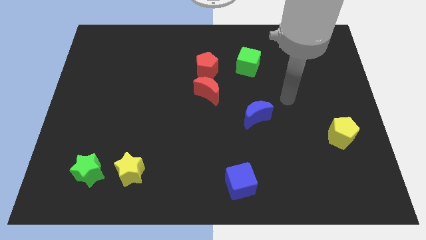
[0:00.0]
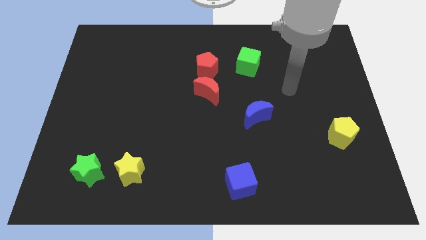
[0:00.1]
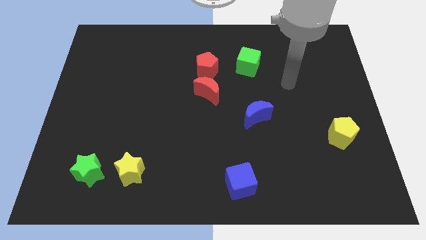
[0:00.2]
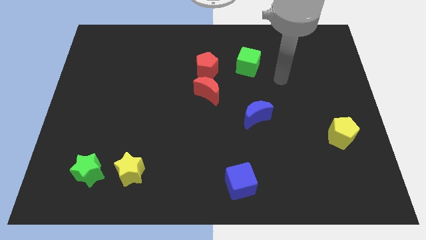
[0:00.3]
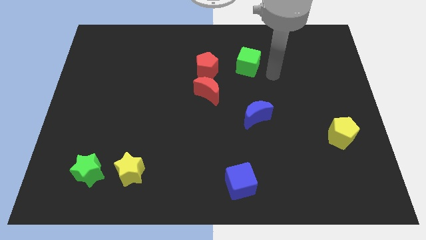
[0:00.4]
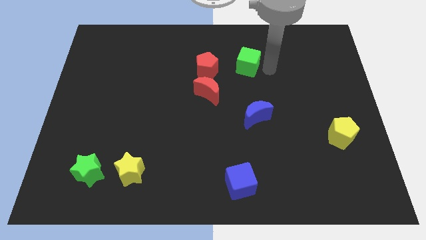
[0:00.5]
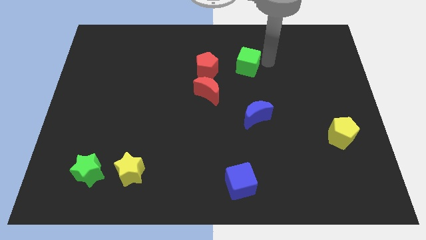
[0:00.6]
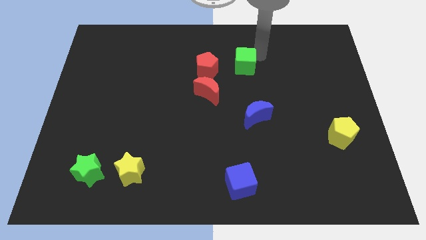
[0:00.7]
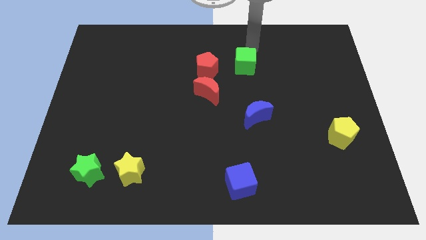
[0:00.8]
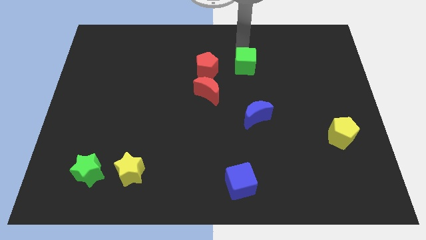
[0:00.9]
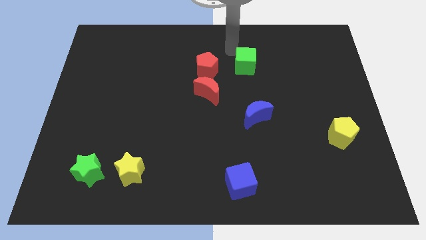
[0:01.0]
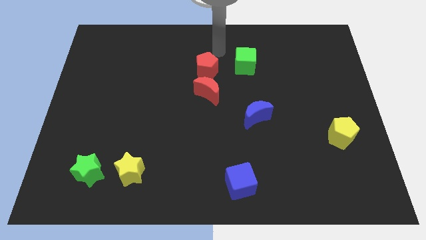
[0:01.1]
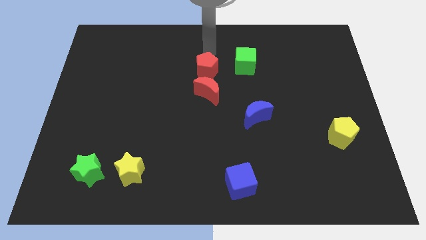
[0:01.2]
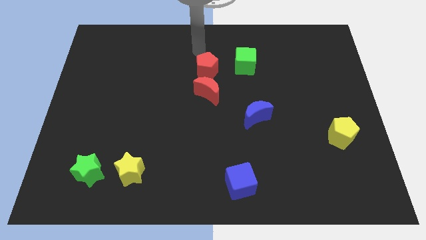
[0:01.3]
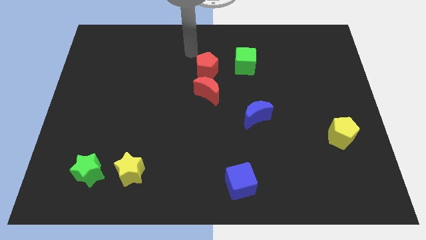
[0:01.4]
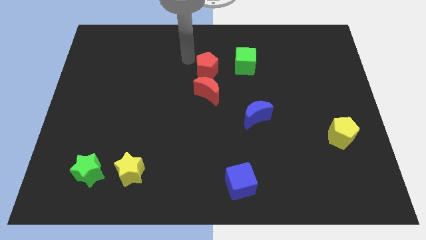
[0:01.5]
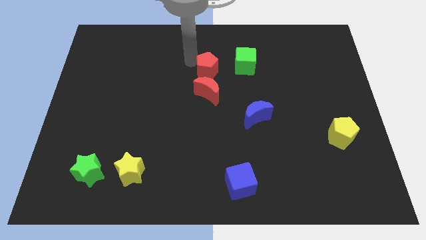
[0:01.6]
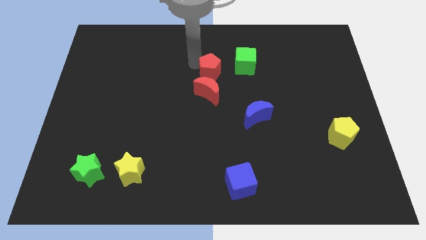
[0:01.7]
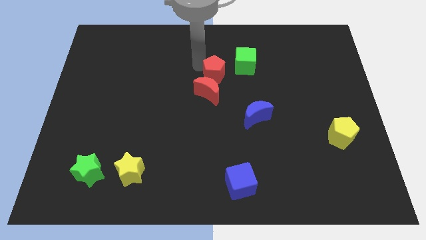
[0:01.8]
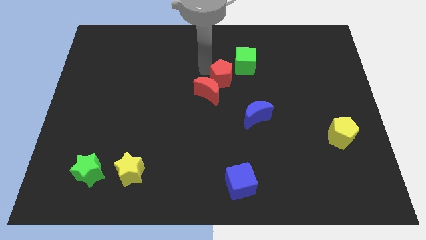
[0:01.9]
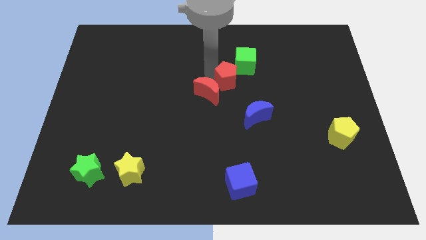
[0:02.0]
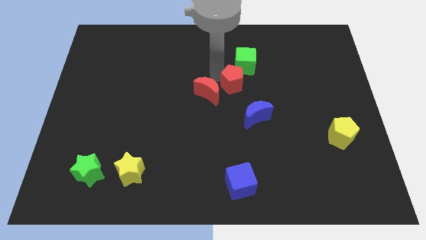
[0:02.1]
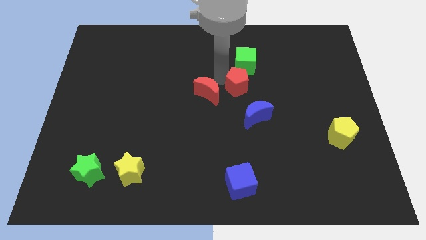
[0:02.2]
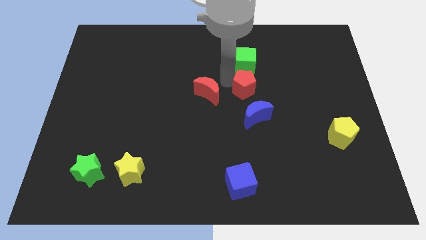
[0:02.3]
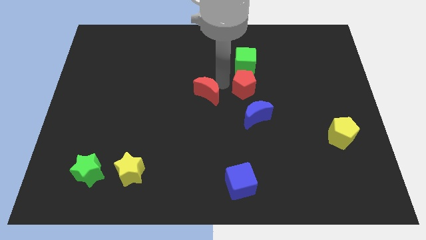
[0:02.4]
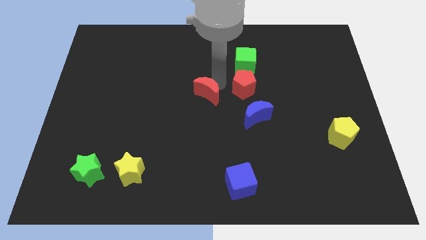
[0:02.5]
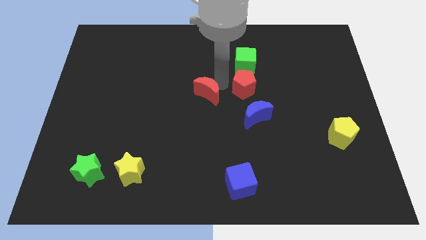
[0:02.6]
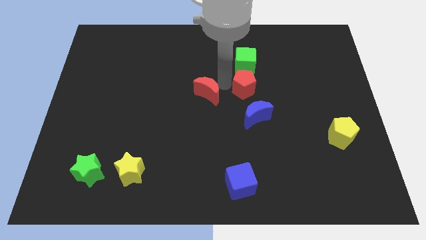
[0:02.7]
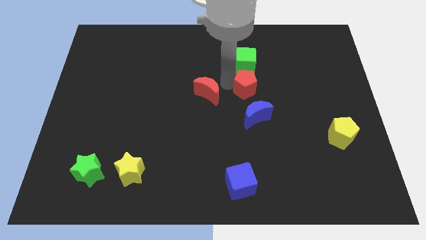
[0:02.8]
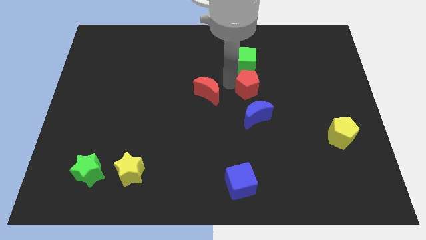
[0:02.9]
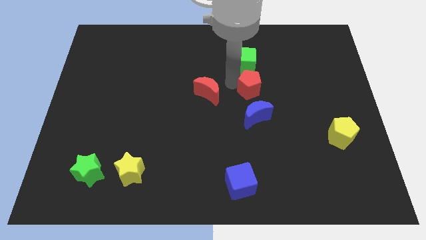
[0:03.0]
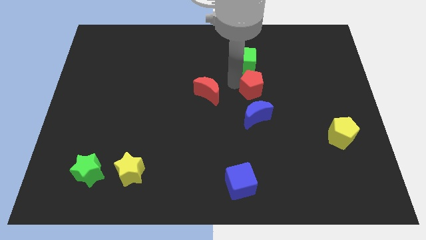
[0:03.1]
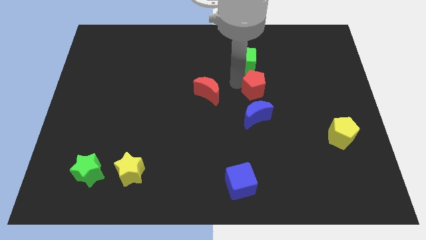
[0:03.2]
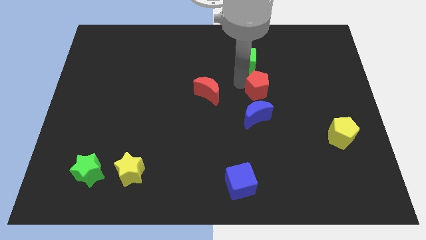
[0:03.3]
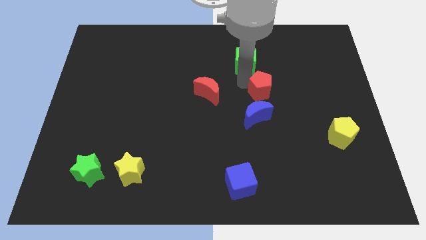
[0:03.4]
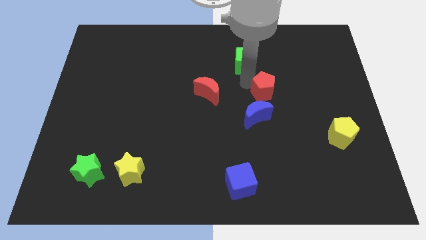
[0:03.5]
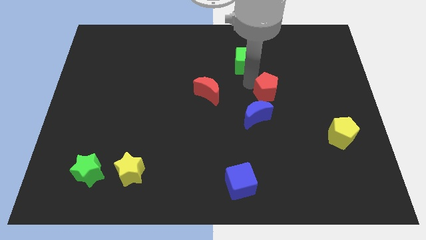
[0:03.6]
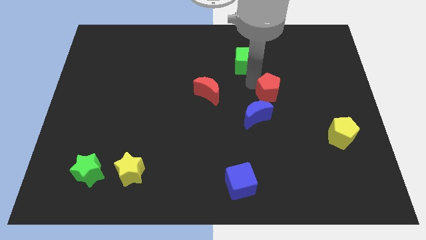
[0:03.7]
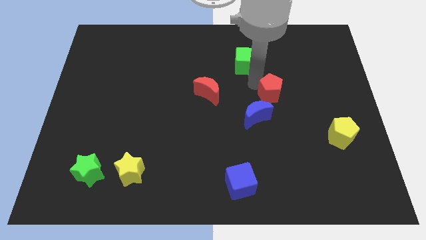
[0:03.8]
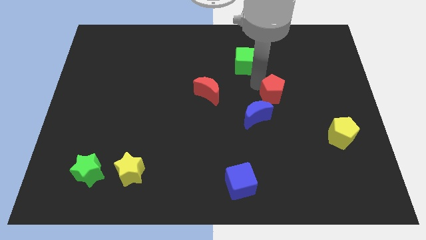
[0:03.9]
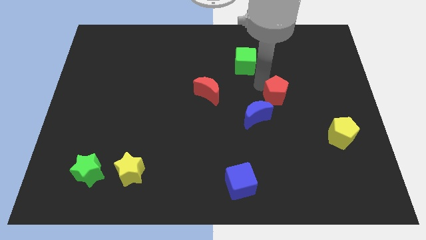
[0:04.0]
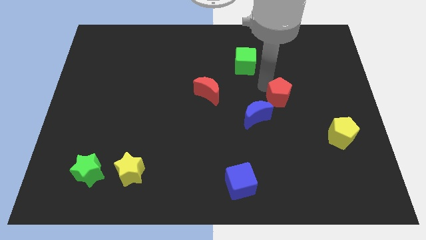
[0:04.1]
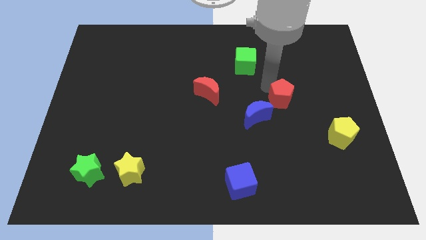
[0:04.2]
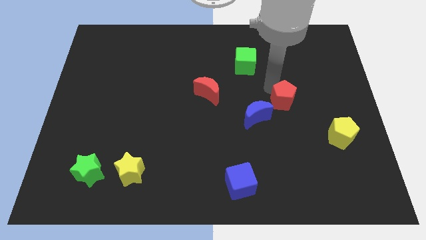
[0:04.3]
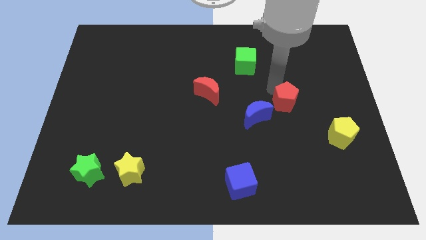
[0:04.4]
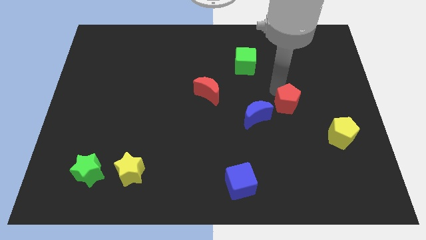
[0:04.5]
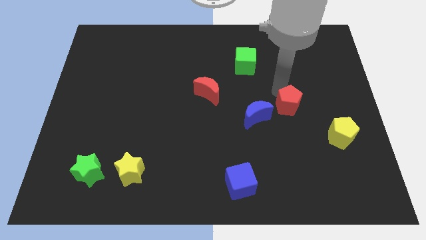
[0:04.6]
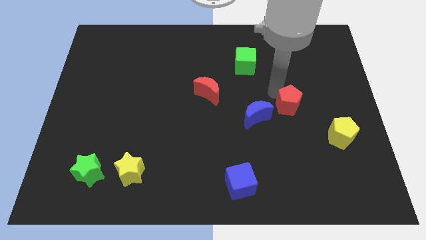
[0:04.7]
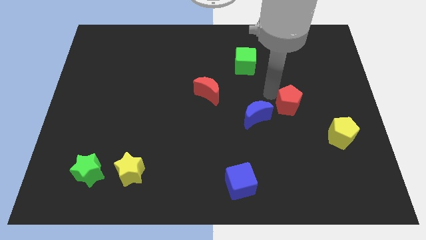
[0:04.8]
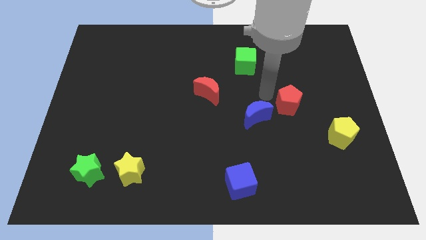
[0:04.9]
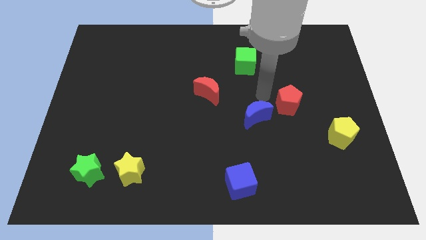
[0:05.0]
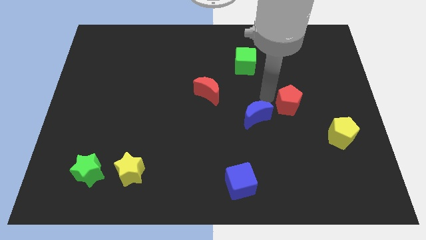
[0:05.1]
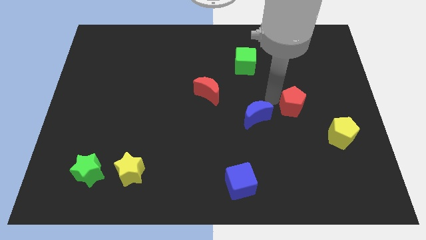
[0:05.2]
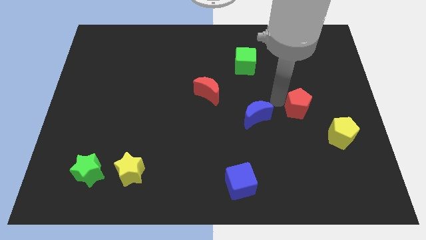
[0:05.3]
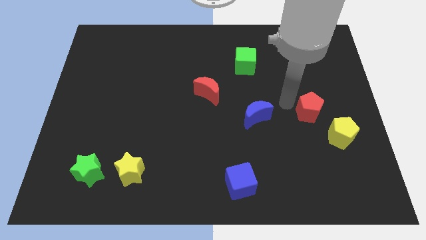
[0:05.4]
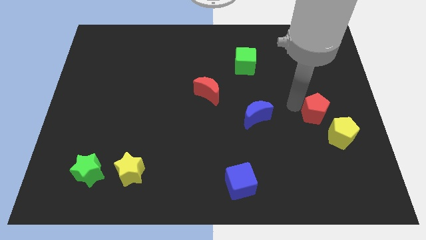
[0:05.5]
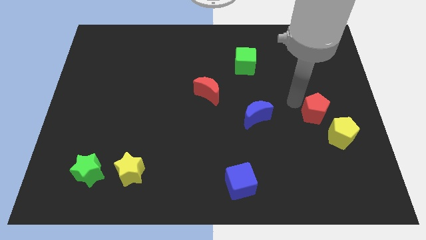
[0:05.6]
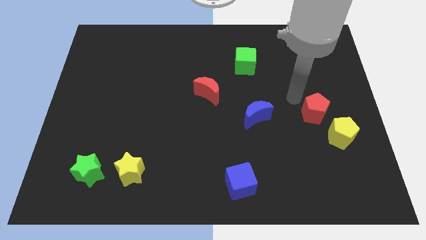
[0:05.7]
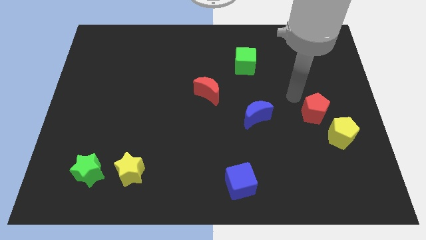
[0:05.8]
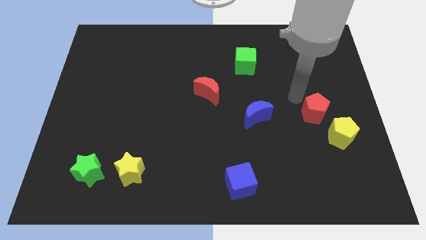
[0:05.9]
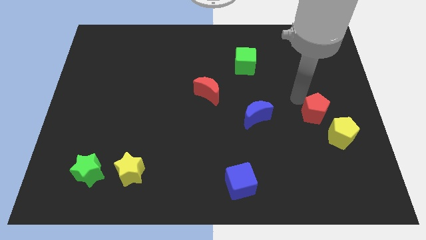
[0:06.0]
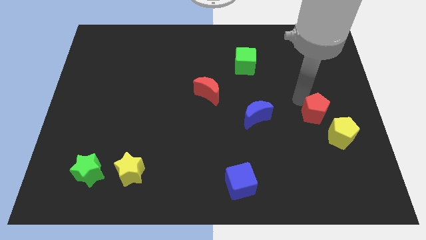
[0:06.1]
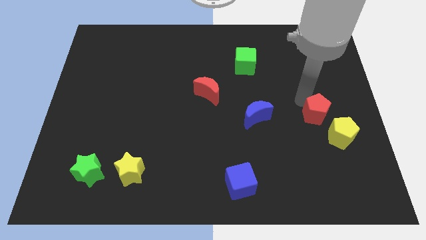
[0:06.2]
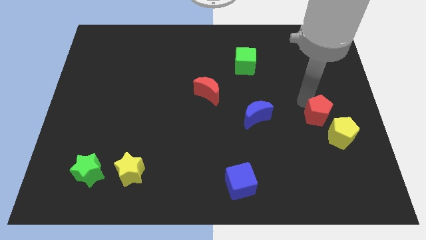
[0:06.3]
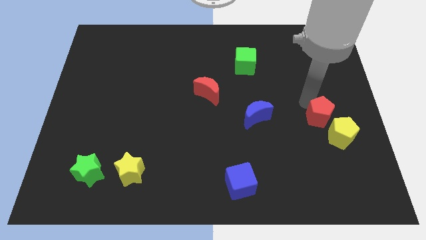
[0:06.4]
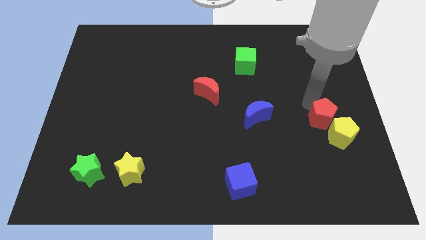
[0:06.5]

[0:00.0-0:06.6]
slide the red pentagon towards the yellow pentagon

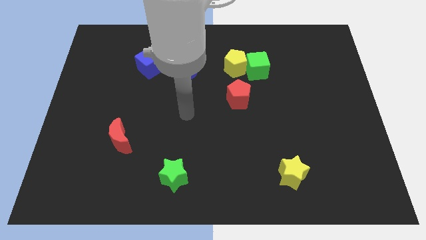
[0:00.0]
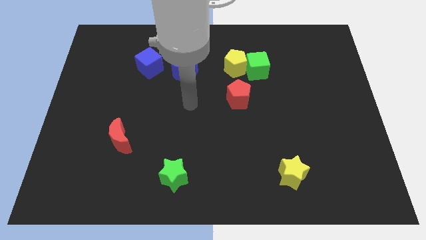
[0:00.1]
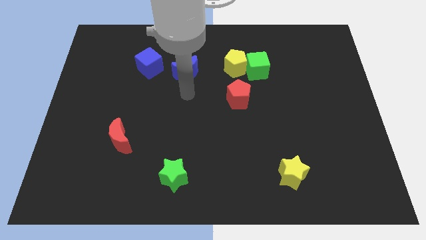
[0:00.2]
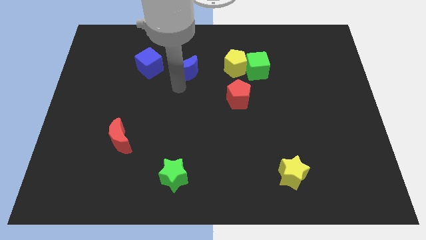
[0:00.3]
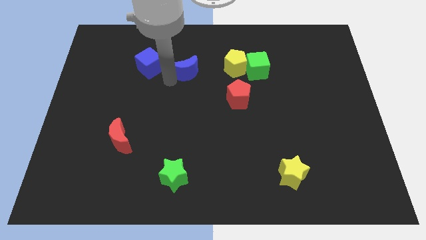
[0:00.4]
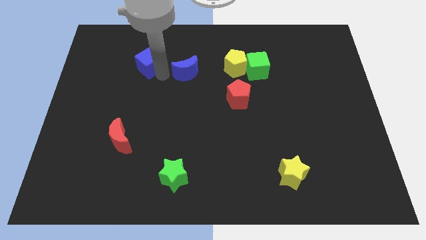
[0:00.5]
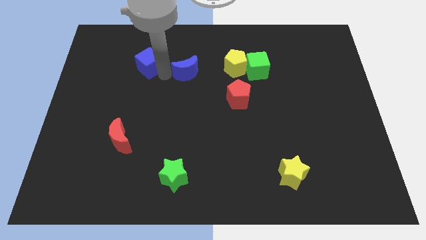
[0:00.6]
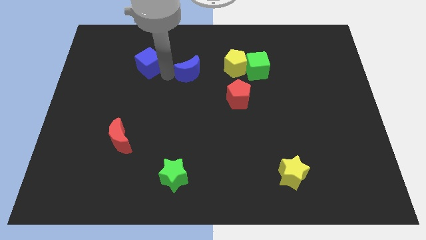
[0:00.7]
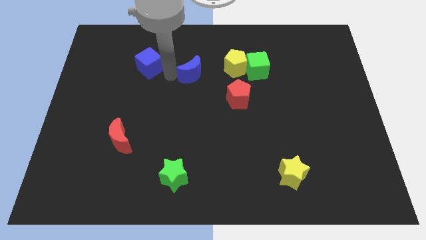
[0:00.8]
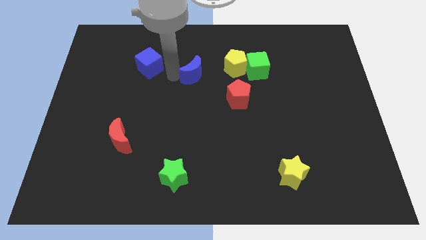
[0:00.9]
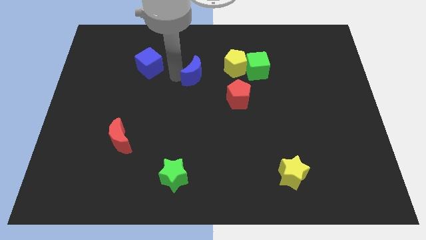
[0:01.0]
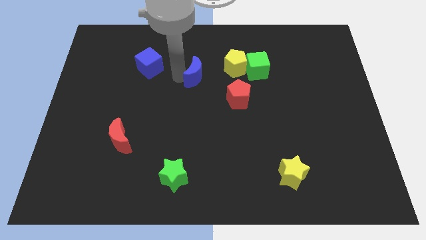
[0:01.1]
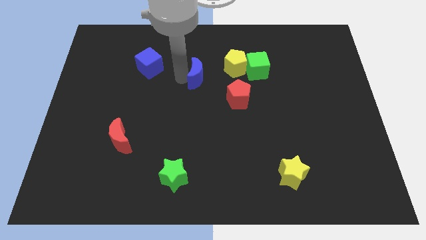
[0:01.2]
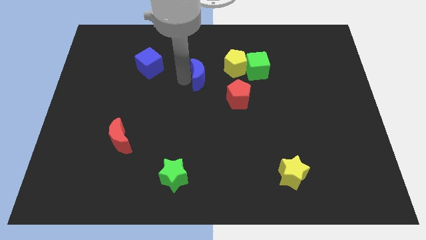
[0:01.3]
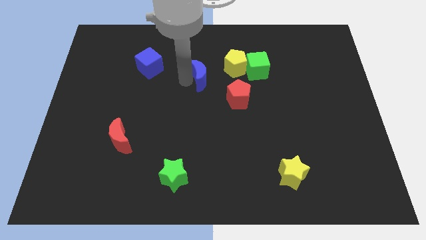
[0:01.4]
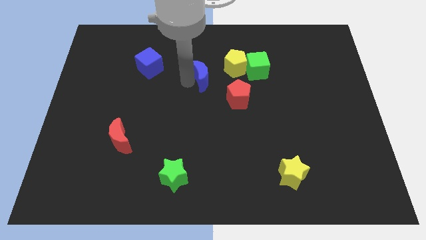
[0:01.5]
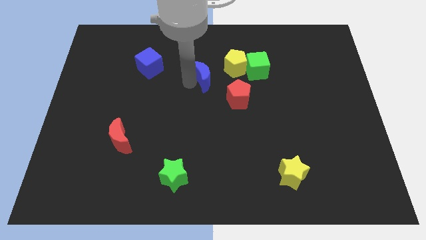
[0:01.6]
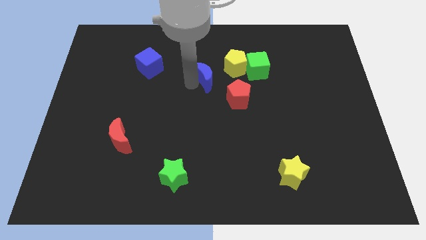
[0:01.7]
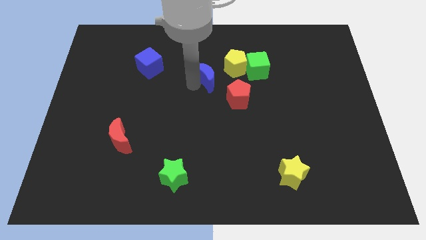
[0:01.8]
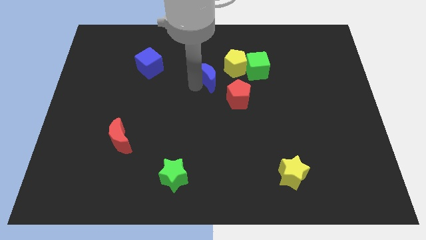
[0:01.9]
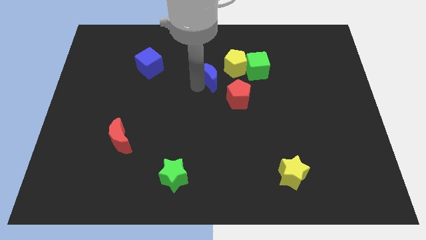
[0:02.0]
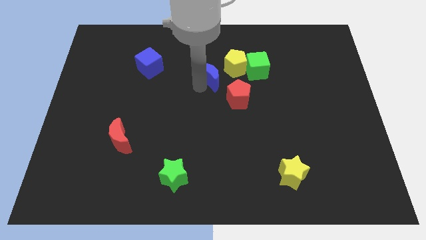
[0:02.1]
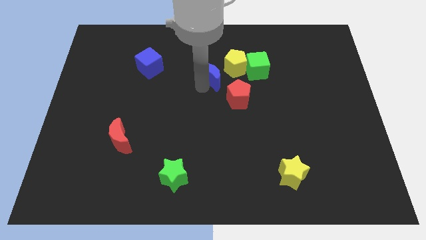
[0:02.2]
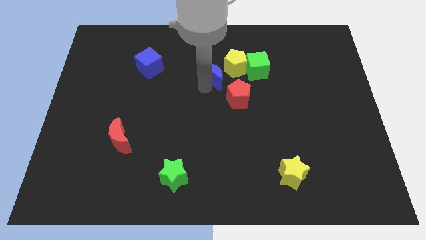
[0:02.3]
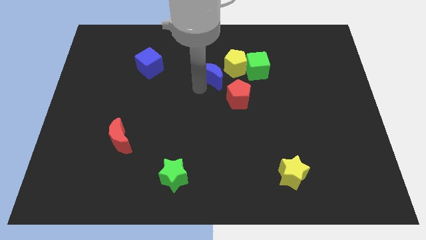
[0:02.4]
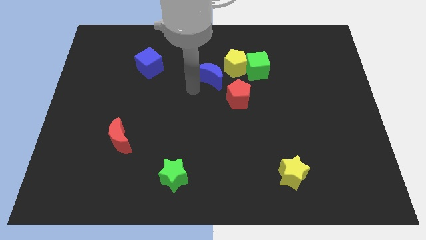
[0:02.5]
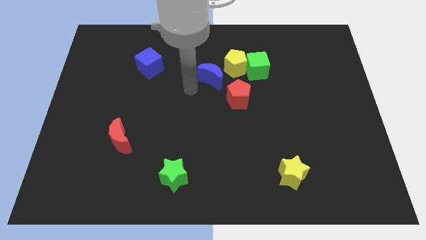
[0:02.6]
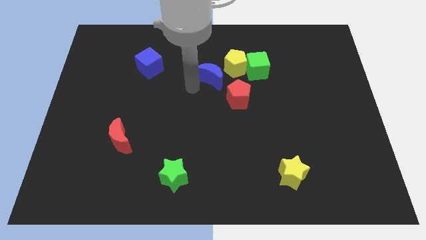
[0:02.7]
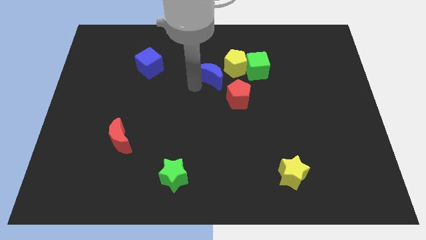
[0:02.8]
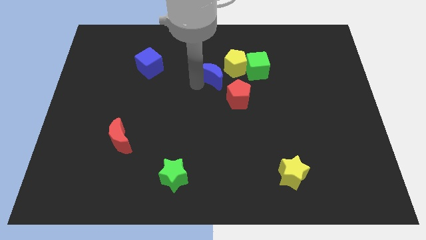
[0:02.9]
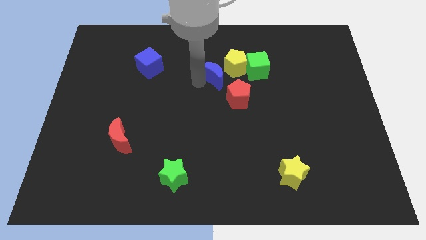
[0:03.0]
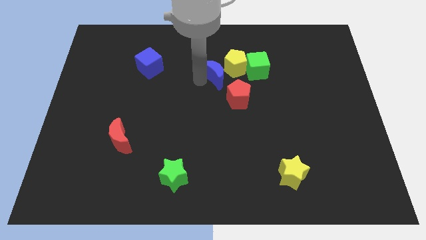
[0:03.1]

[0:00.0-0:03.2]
move the blue moon next to the yellow pentagon
